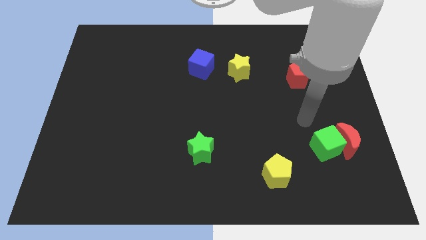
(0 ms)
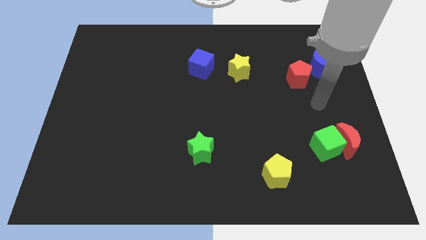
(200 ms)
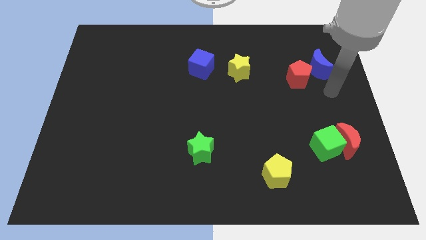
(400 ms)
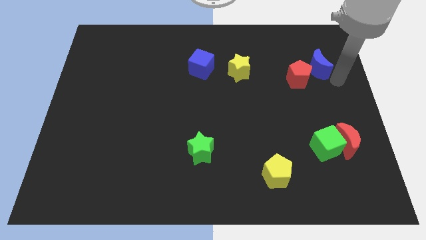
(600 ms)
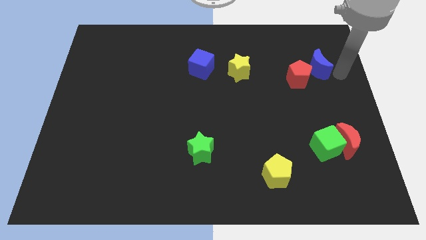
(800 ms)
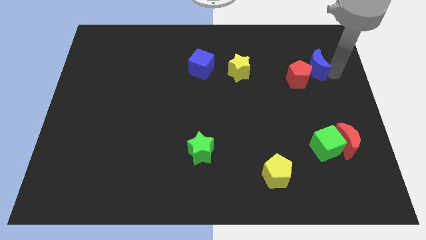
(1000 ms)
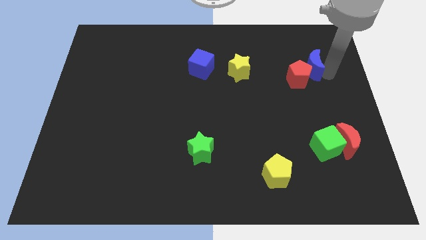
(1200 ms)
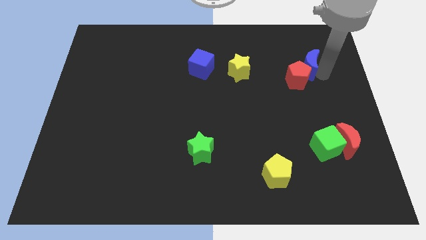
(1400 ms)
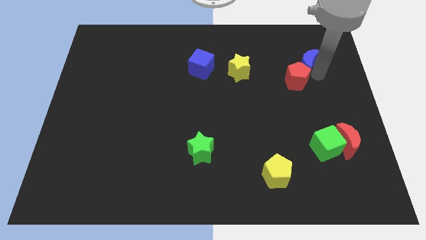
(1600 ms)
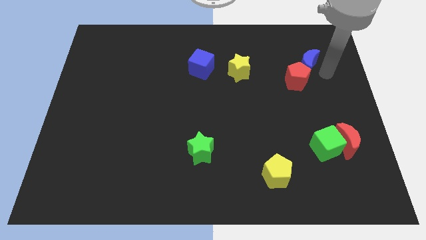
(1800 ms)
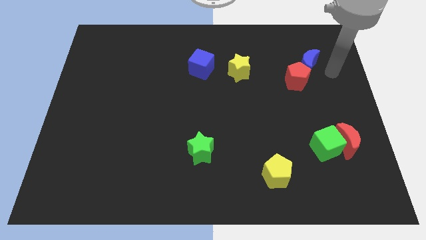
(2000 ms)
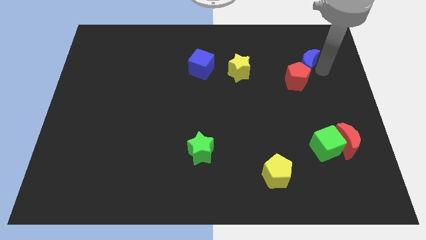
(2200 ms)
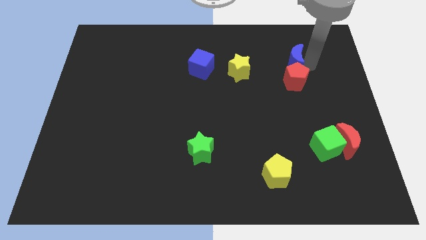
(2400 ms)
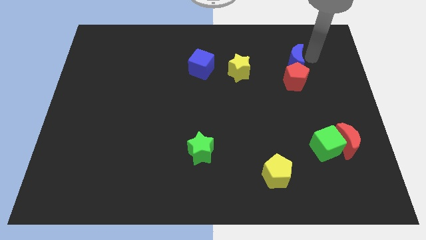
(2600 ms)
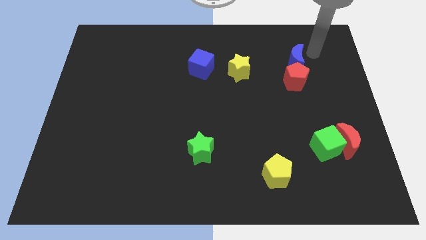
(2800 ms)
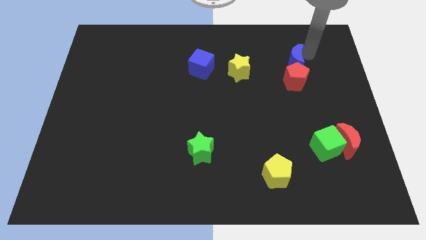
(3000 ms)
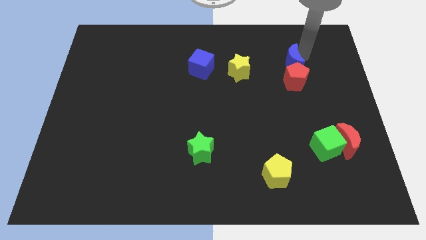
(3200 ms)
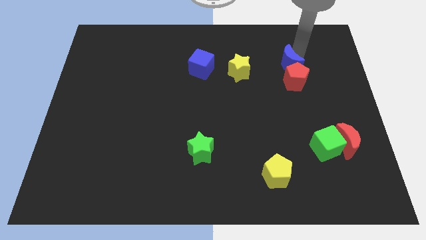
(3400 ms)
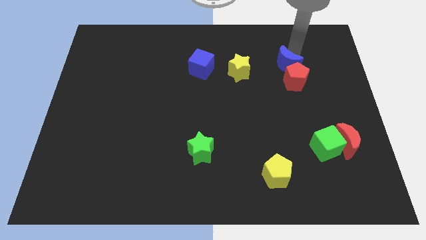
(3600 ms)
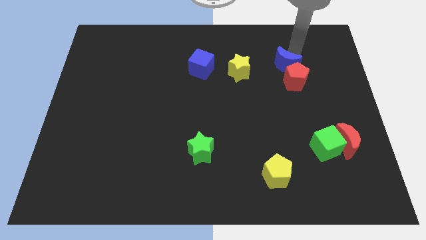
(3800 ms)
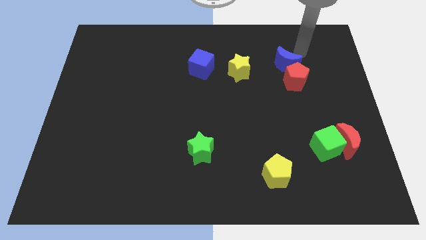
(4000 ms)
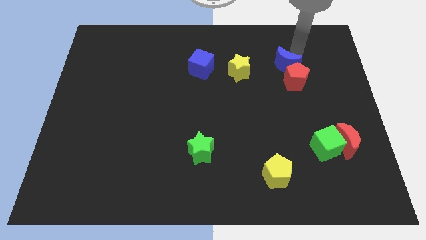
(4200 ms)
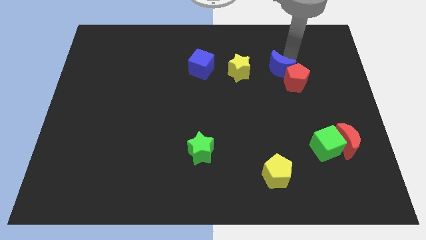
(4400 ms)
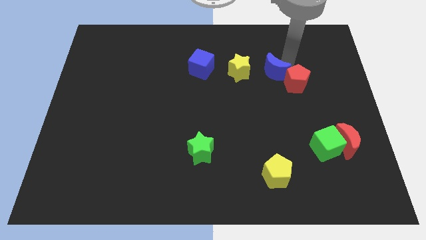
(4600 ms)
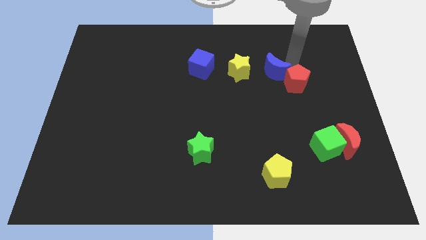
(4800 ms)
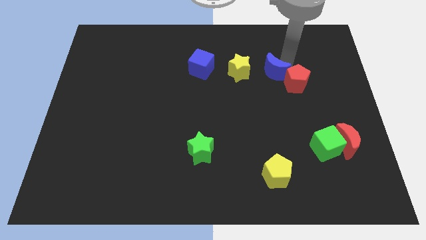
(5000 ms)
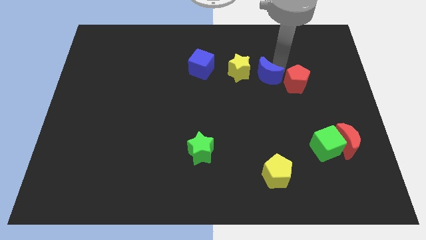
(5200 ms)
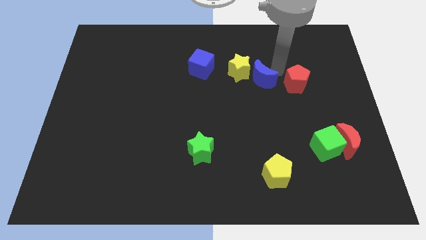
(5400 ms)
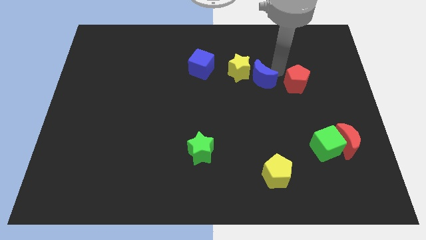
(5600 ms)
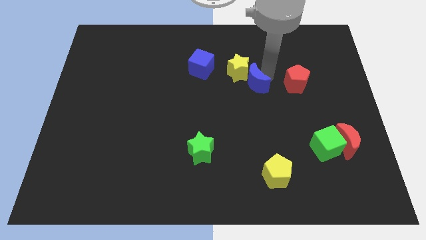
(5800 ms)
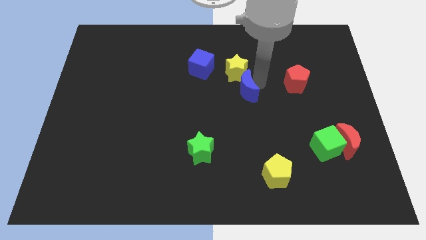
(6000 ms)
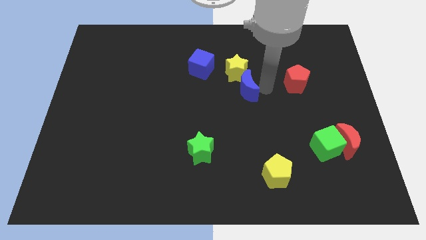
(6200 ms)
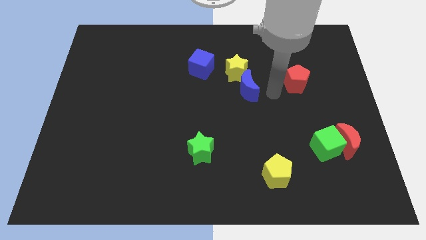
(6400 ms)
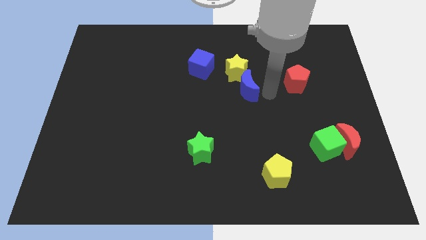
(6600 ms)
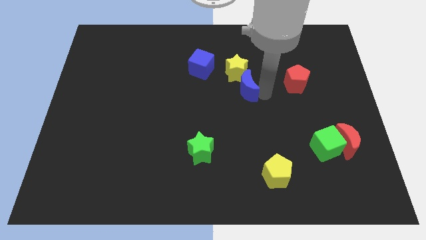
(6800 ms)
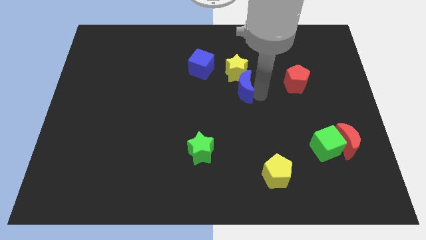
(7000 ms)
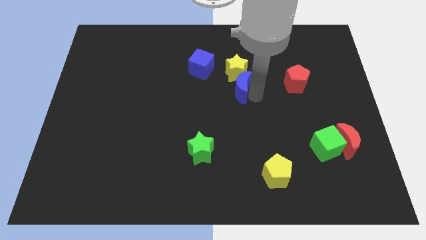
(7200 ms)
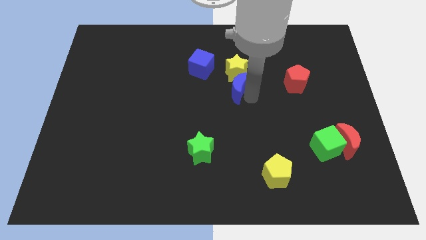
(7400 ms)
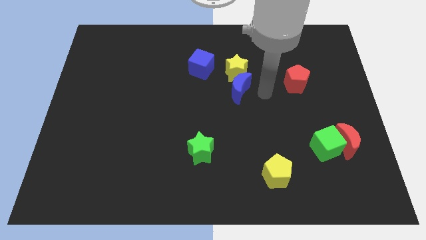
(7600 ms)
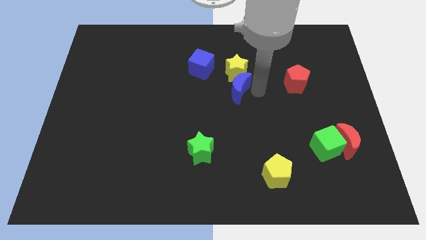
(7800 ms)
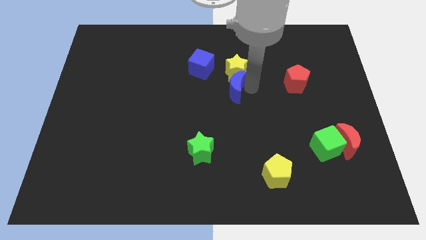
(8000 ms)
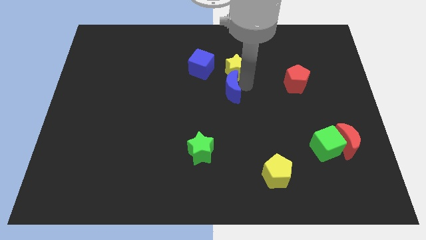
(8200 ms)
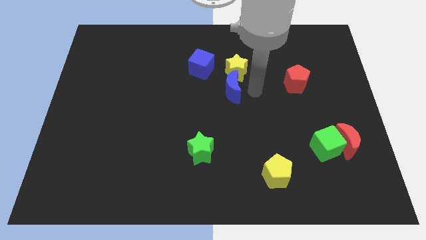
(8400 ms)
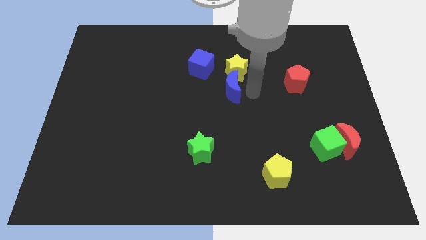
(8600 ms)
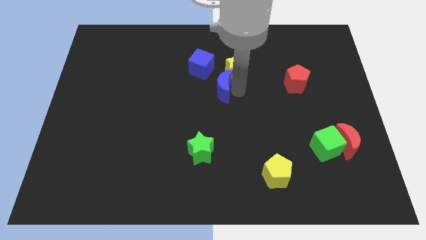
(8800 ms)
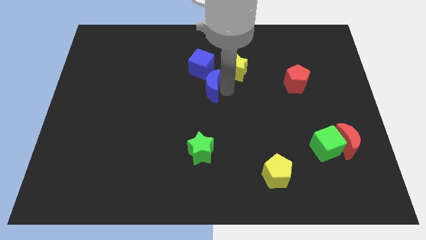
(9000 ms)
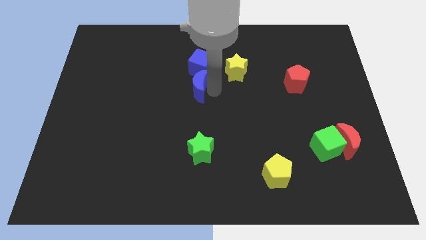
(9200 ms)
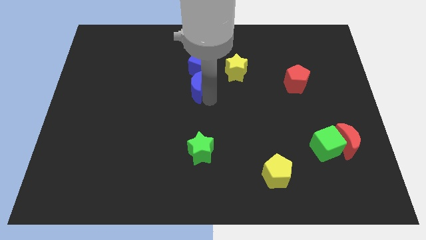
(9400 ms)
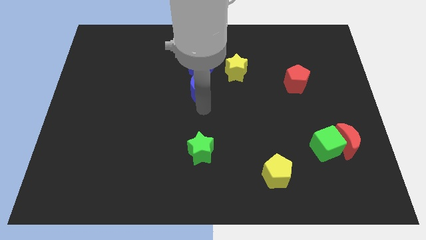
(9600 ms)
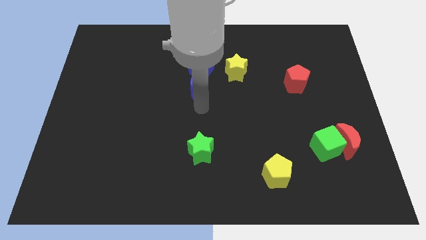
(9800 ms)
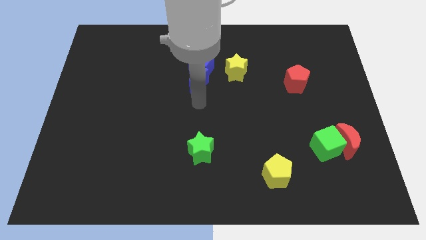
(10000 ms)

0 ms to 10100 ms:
move the blue moon to the left side of the yellow star

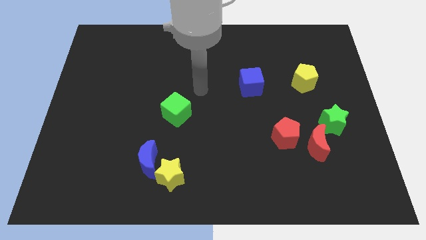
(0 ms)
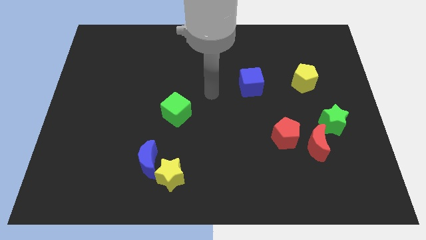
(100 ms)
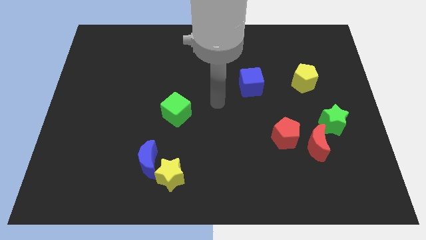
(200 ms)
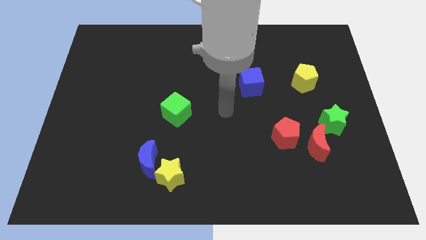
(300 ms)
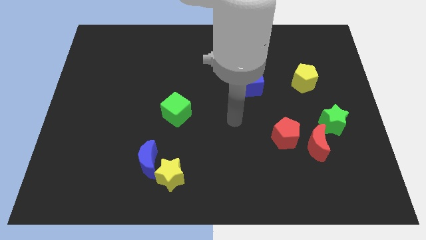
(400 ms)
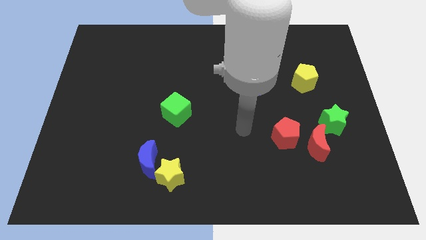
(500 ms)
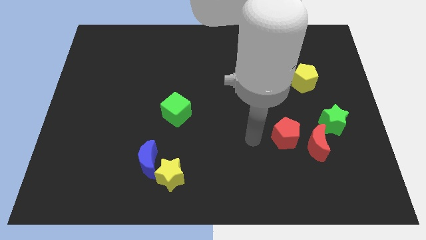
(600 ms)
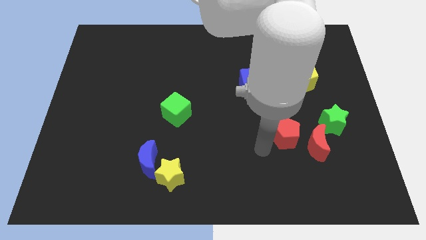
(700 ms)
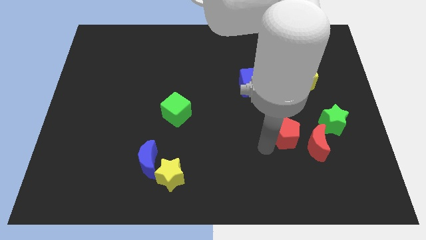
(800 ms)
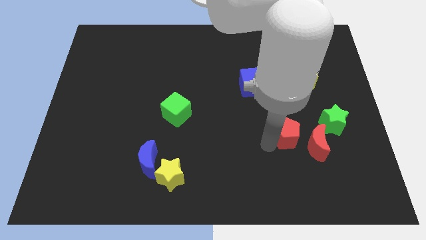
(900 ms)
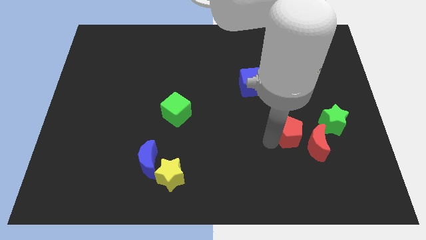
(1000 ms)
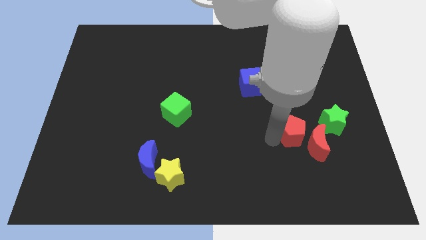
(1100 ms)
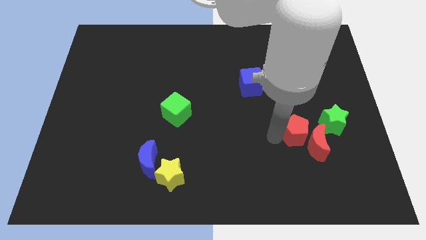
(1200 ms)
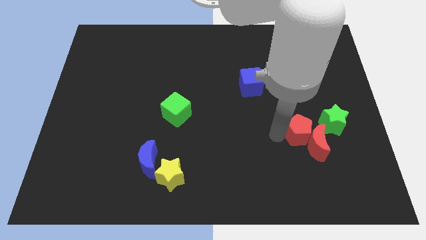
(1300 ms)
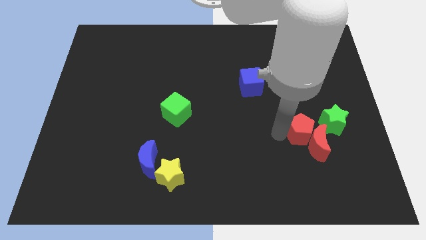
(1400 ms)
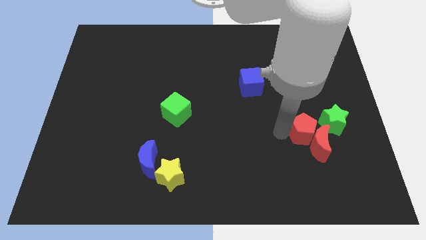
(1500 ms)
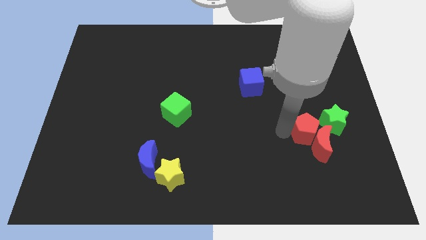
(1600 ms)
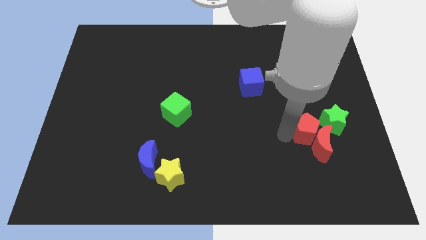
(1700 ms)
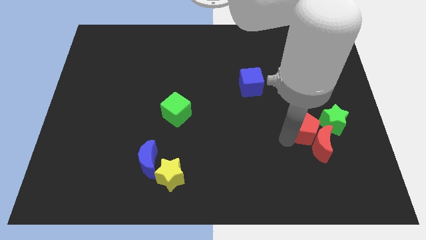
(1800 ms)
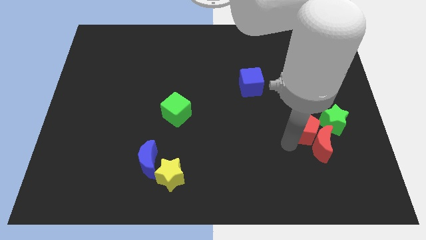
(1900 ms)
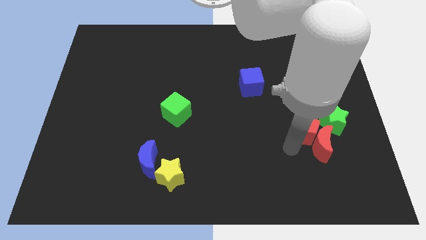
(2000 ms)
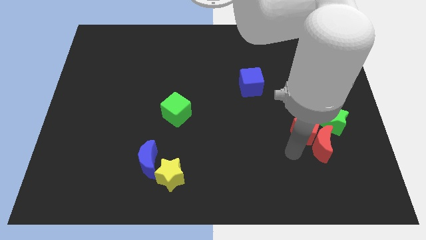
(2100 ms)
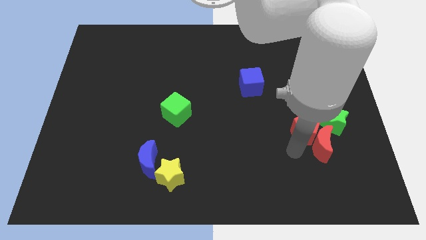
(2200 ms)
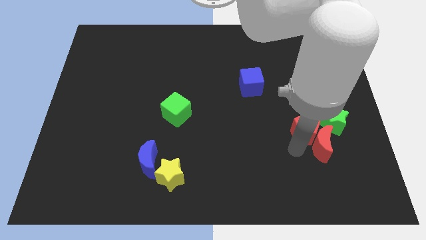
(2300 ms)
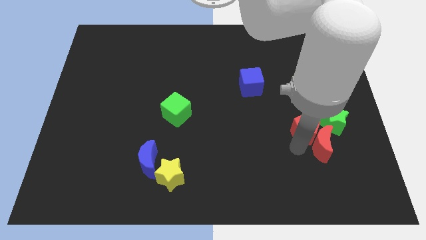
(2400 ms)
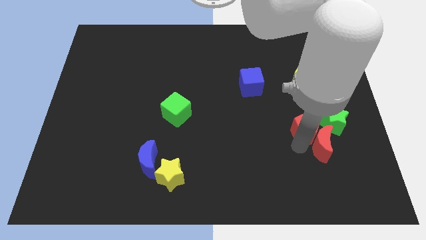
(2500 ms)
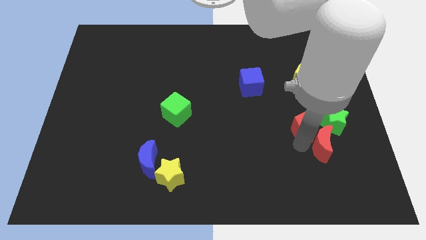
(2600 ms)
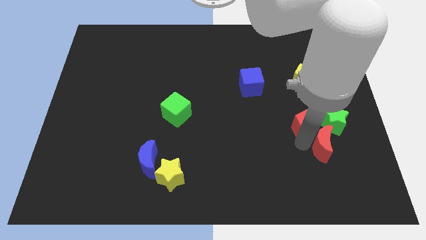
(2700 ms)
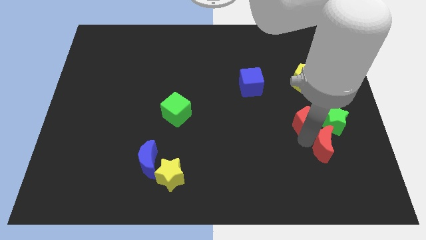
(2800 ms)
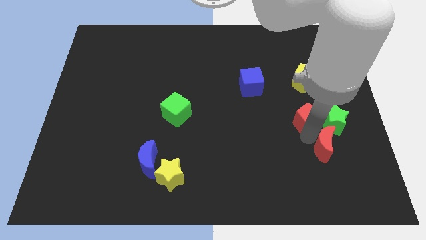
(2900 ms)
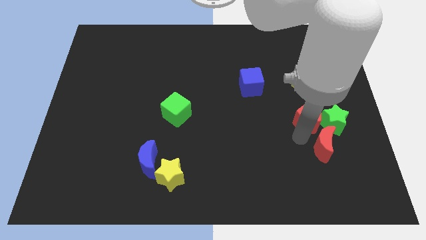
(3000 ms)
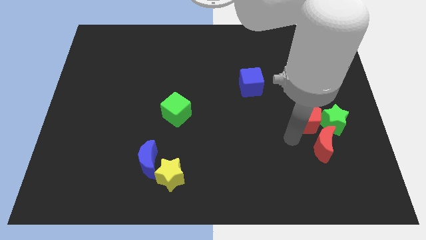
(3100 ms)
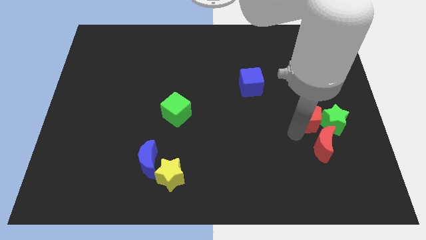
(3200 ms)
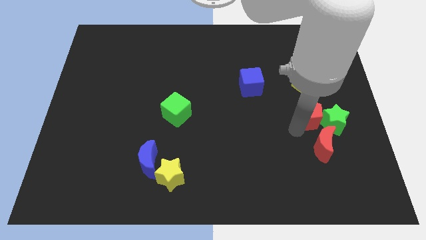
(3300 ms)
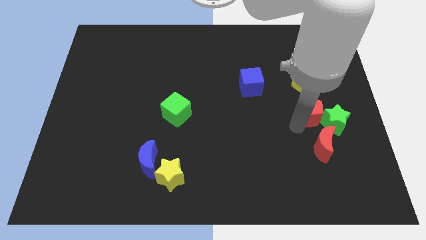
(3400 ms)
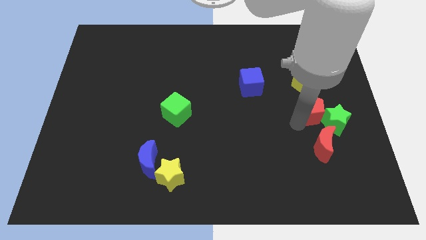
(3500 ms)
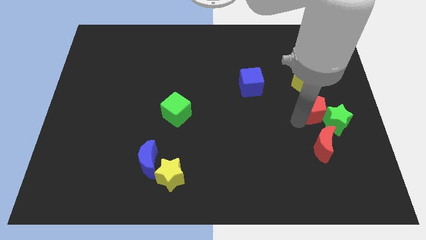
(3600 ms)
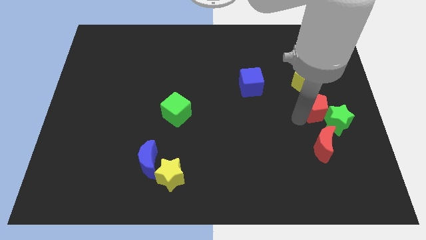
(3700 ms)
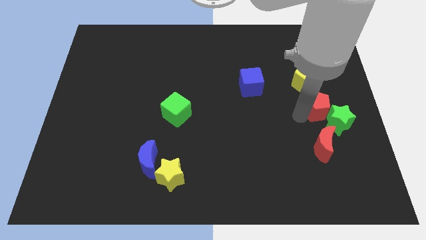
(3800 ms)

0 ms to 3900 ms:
push the red pentagon diagonally down and to the right of the yellow pentagon
